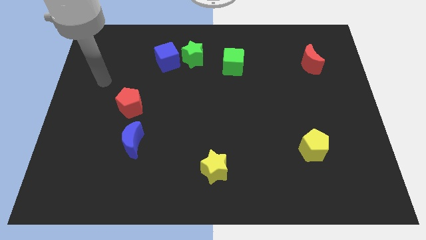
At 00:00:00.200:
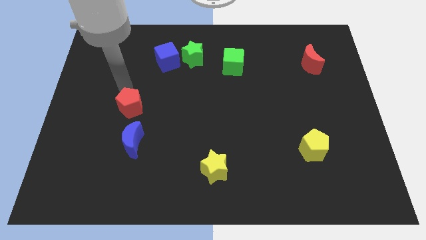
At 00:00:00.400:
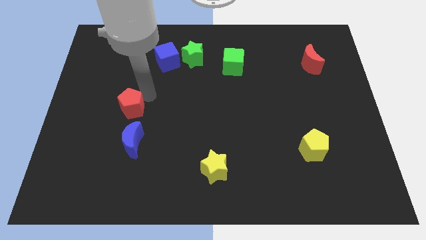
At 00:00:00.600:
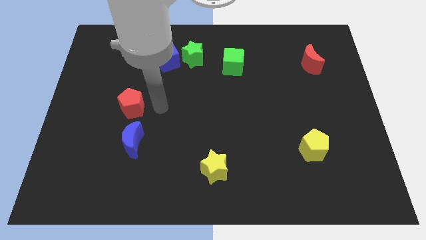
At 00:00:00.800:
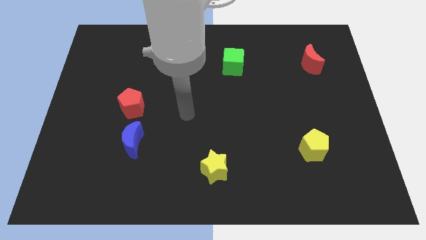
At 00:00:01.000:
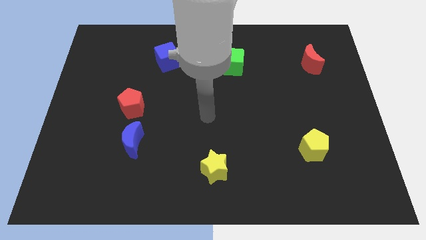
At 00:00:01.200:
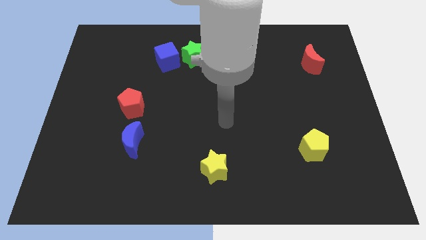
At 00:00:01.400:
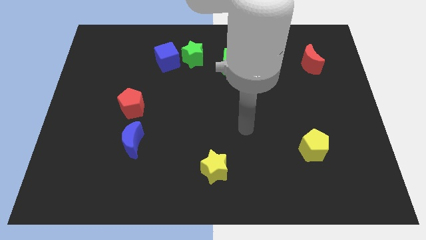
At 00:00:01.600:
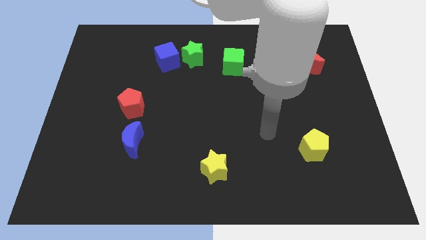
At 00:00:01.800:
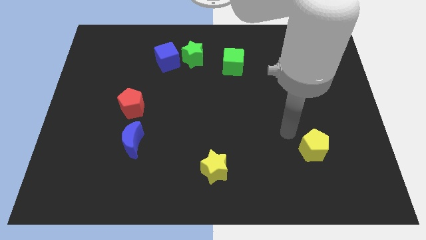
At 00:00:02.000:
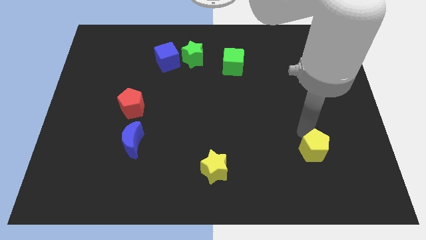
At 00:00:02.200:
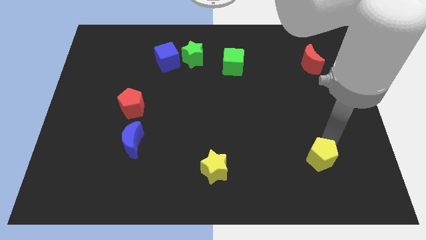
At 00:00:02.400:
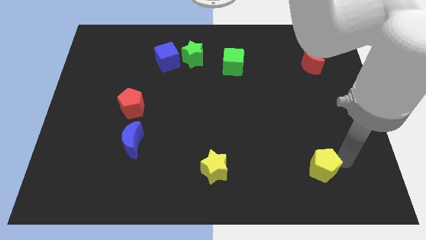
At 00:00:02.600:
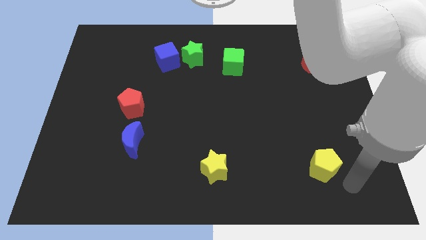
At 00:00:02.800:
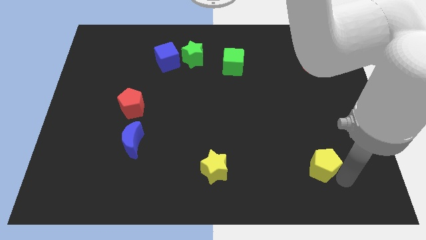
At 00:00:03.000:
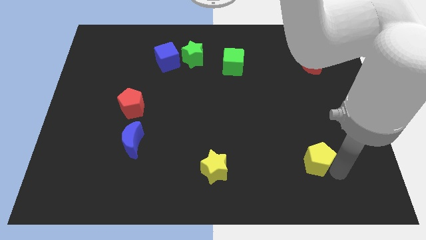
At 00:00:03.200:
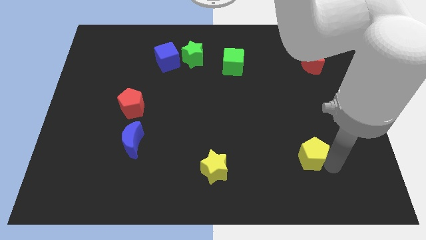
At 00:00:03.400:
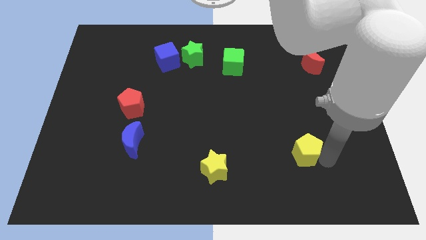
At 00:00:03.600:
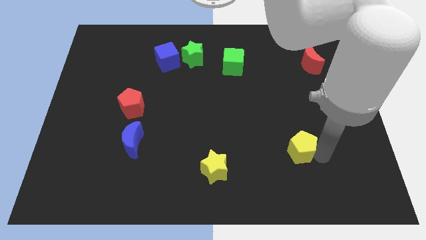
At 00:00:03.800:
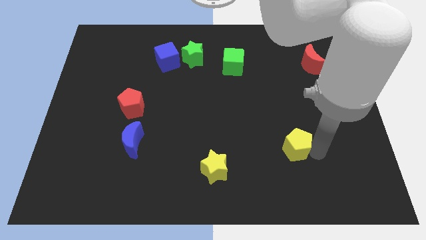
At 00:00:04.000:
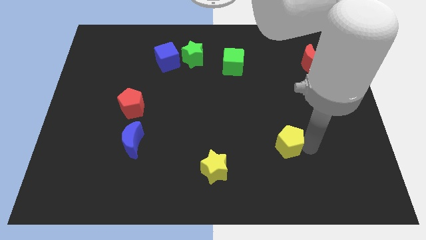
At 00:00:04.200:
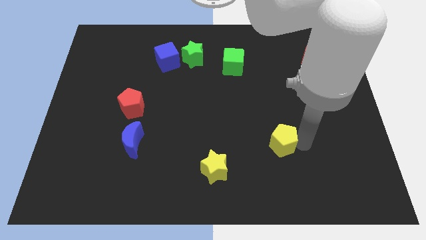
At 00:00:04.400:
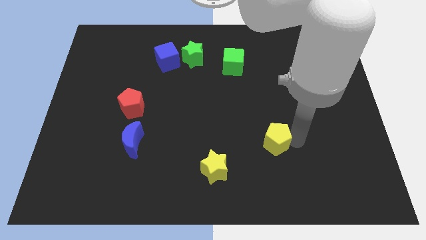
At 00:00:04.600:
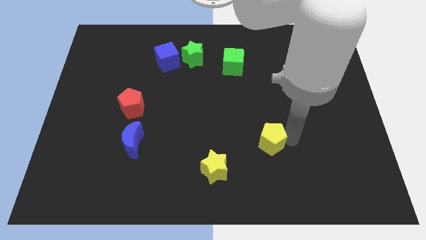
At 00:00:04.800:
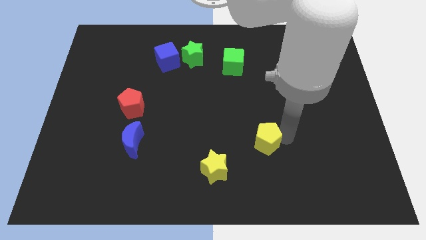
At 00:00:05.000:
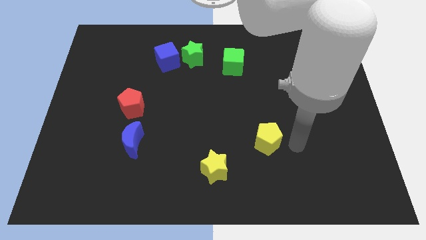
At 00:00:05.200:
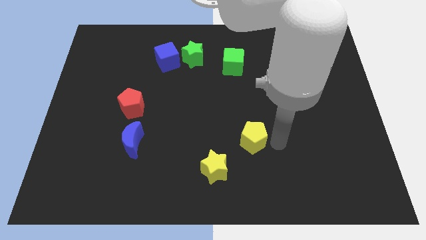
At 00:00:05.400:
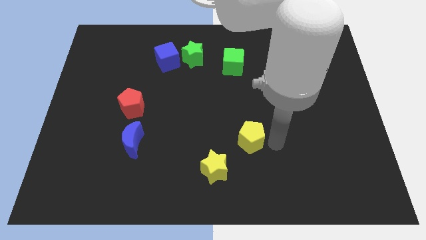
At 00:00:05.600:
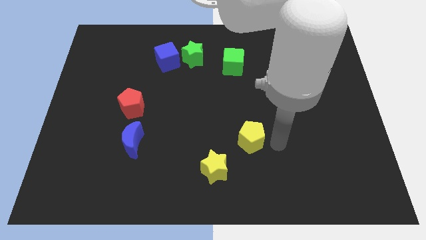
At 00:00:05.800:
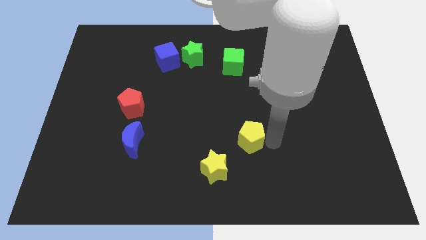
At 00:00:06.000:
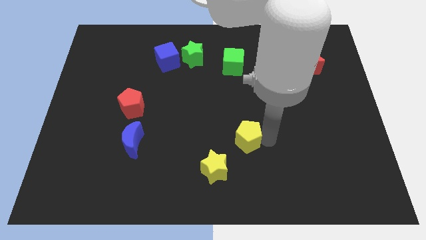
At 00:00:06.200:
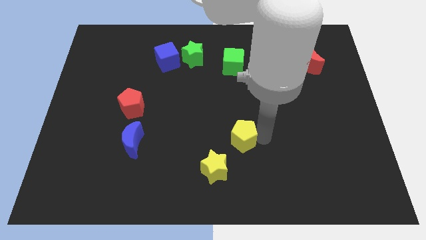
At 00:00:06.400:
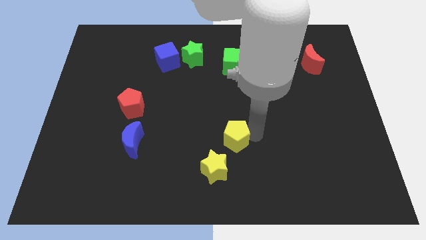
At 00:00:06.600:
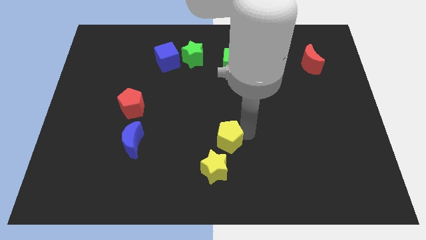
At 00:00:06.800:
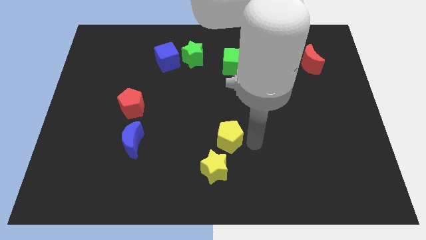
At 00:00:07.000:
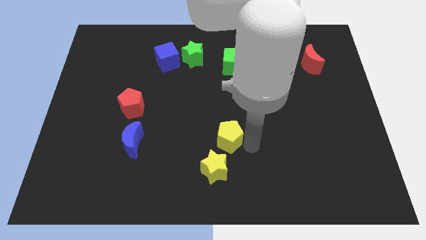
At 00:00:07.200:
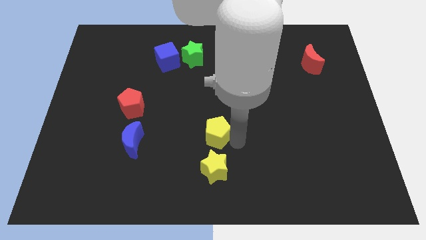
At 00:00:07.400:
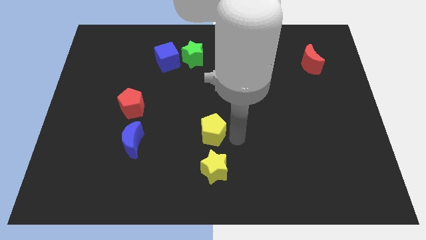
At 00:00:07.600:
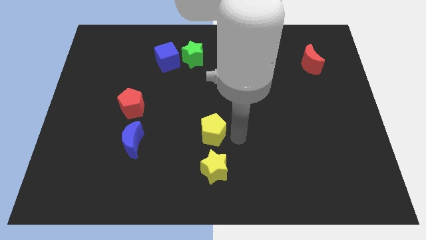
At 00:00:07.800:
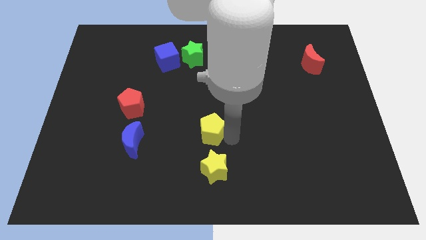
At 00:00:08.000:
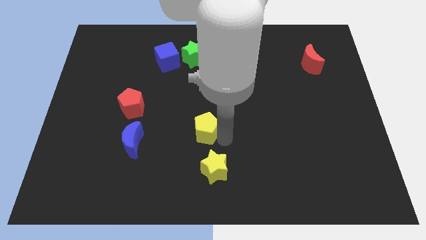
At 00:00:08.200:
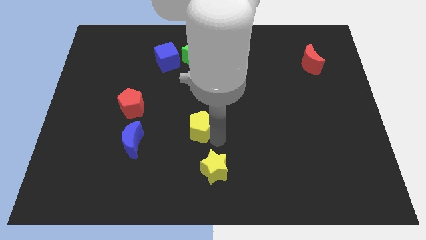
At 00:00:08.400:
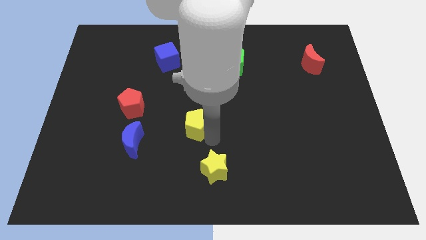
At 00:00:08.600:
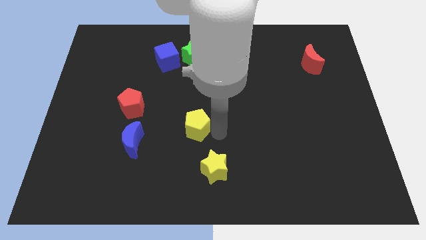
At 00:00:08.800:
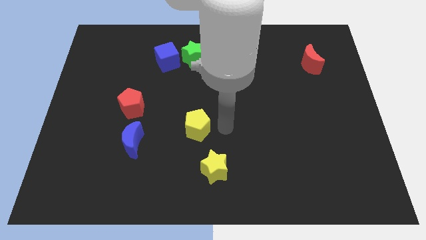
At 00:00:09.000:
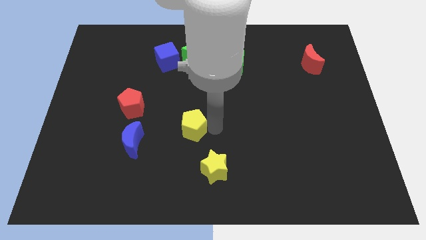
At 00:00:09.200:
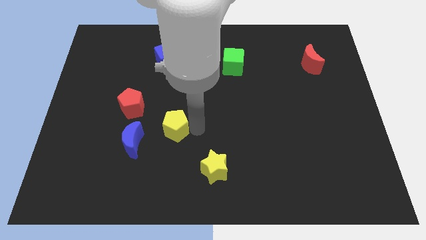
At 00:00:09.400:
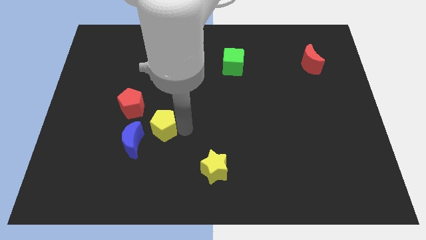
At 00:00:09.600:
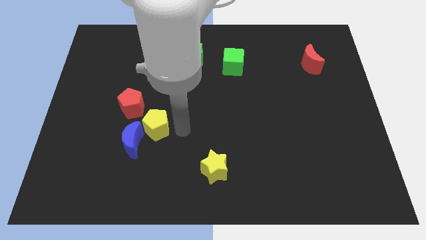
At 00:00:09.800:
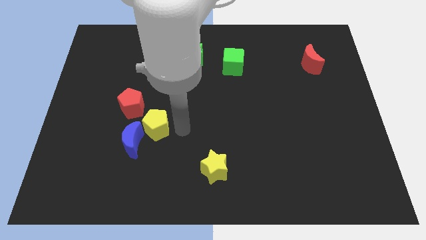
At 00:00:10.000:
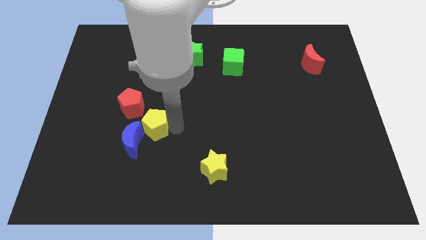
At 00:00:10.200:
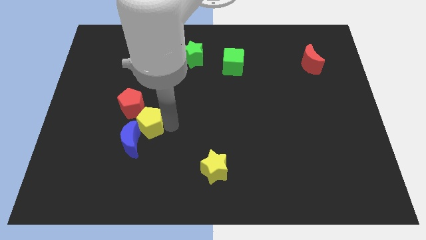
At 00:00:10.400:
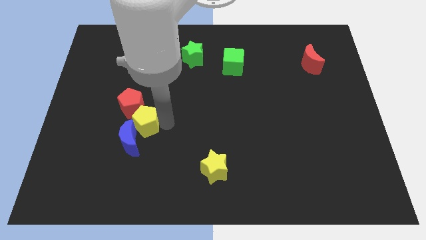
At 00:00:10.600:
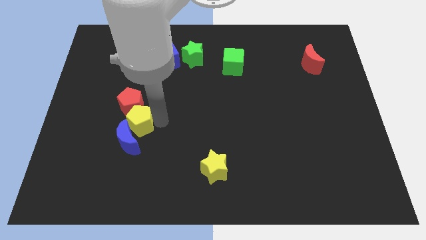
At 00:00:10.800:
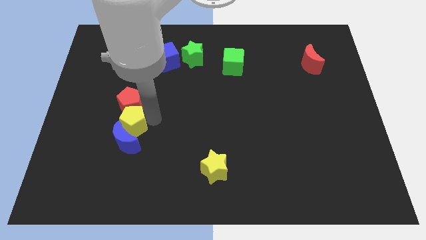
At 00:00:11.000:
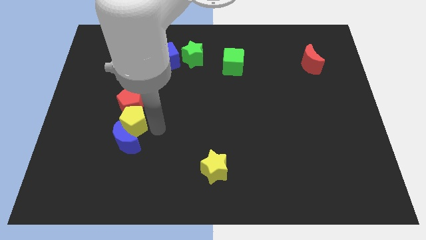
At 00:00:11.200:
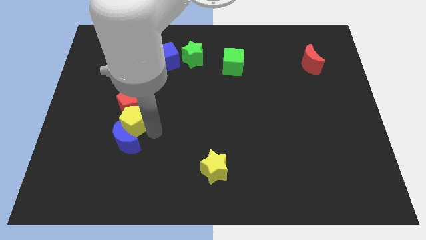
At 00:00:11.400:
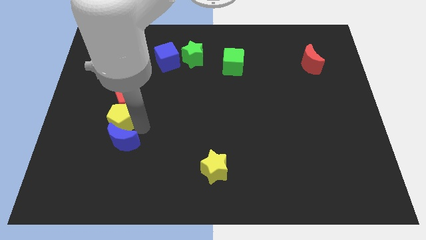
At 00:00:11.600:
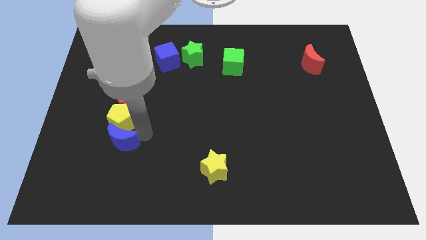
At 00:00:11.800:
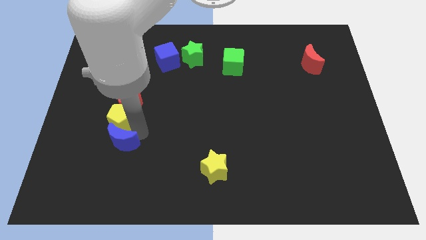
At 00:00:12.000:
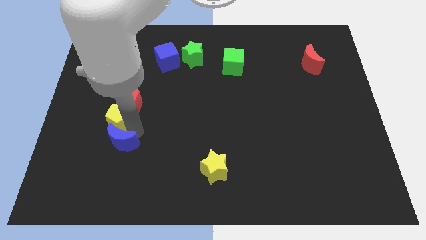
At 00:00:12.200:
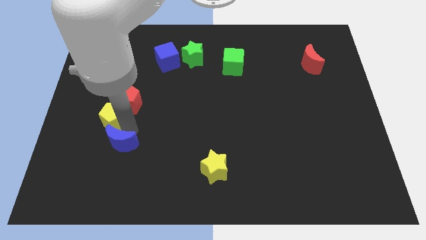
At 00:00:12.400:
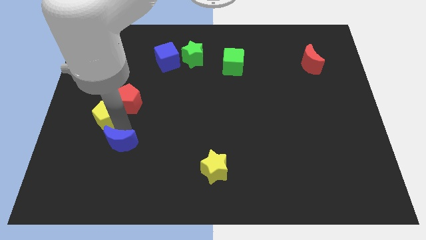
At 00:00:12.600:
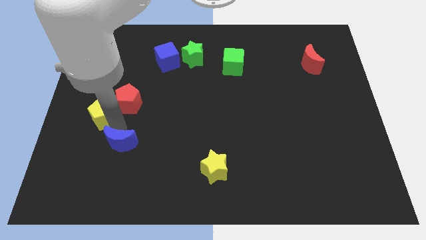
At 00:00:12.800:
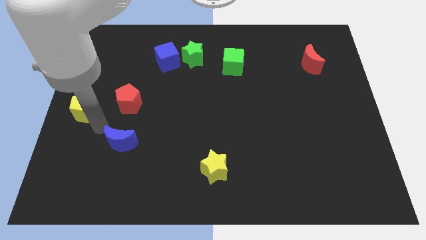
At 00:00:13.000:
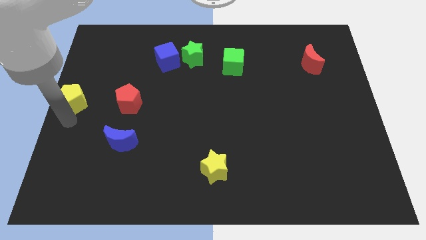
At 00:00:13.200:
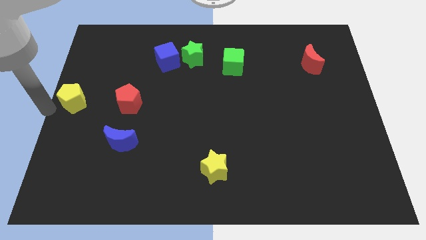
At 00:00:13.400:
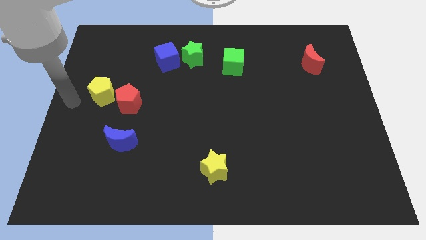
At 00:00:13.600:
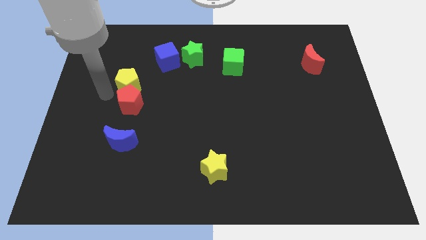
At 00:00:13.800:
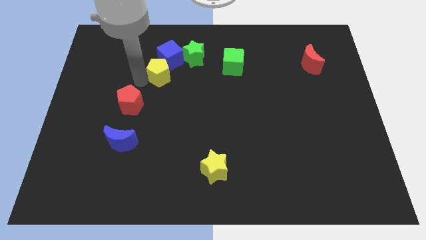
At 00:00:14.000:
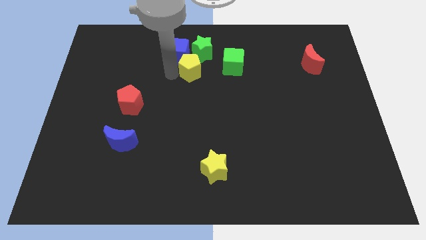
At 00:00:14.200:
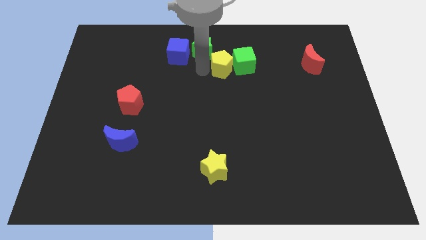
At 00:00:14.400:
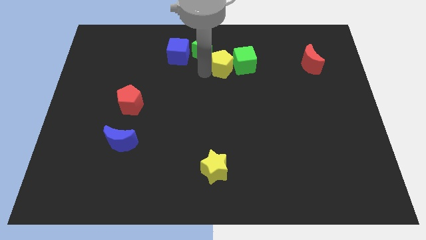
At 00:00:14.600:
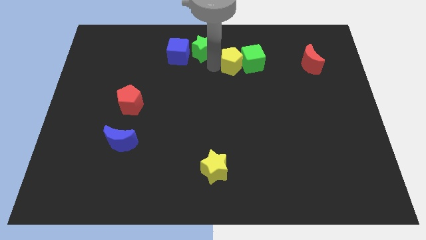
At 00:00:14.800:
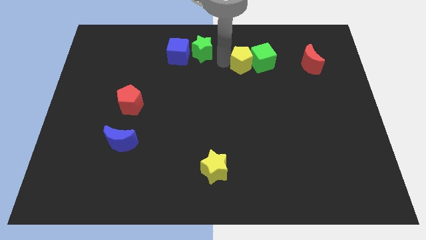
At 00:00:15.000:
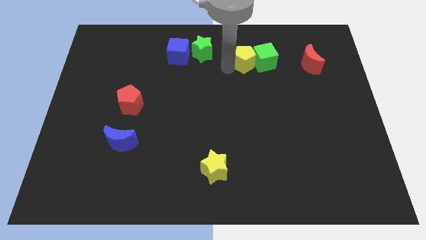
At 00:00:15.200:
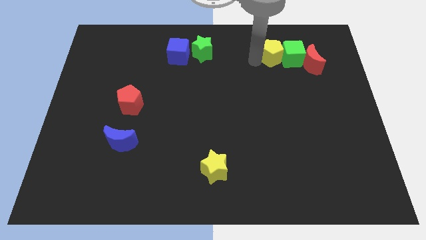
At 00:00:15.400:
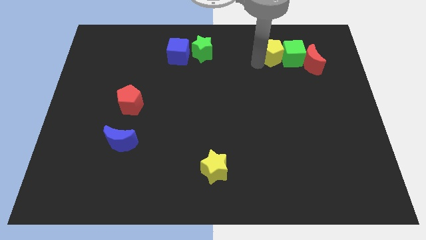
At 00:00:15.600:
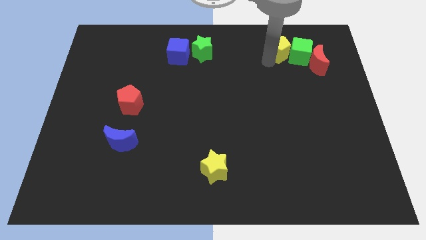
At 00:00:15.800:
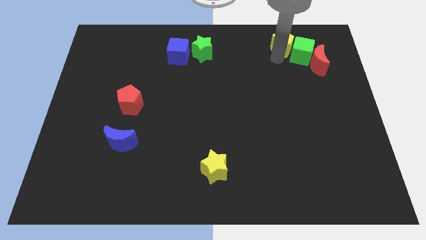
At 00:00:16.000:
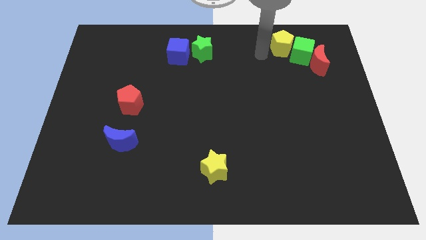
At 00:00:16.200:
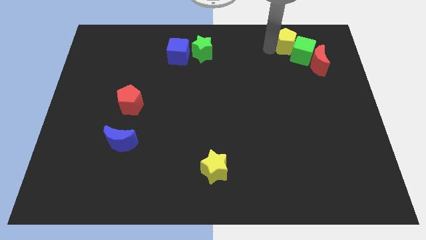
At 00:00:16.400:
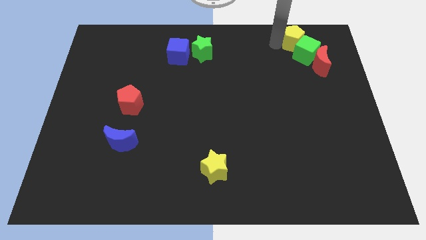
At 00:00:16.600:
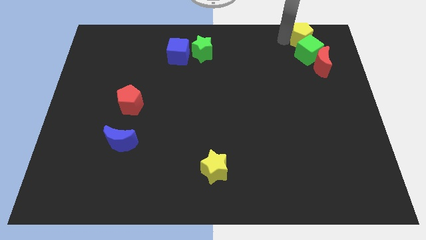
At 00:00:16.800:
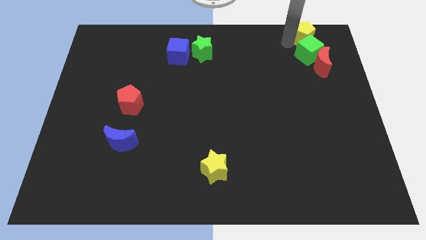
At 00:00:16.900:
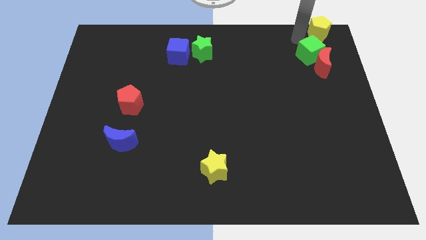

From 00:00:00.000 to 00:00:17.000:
push the yellow pentagon to the upper right corner
